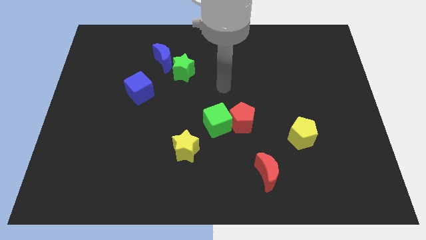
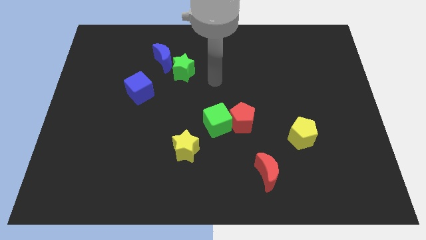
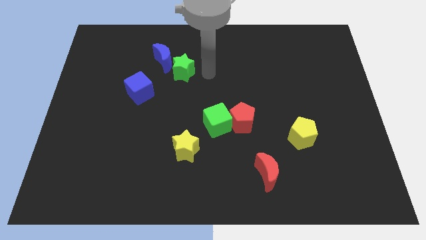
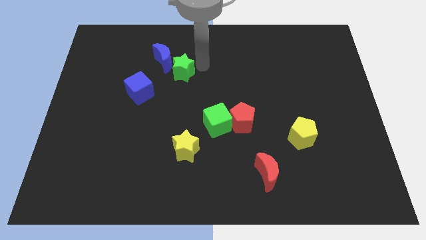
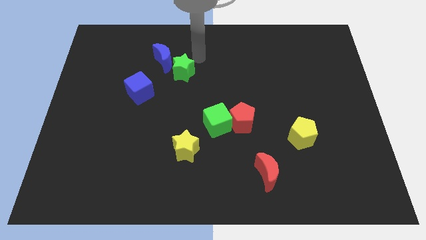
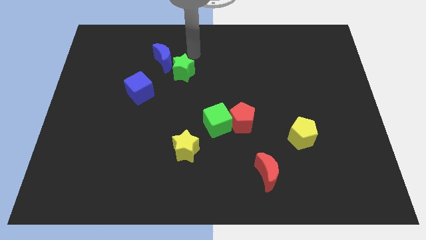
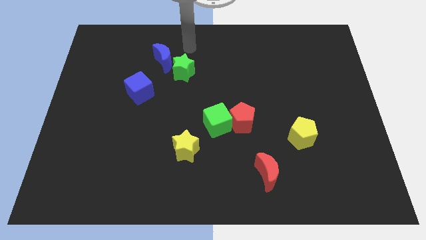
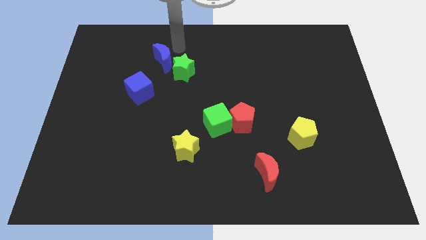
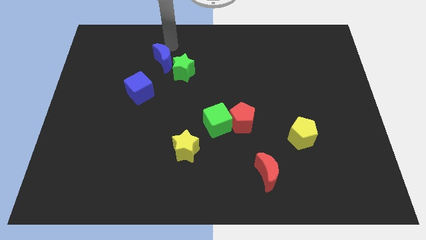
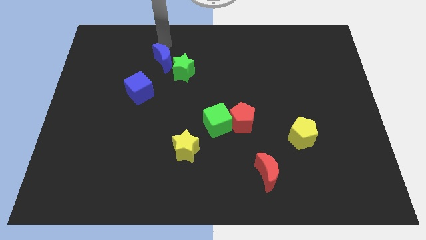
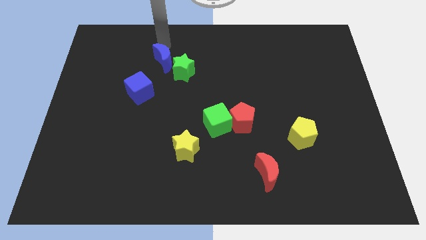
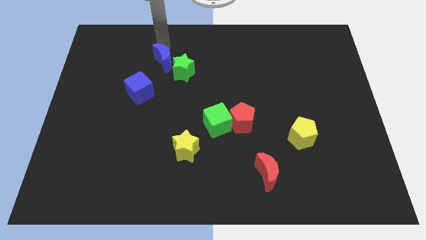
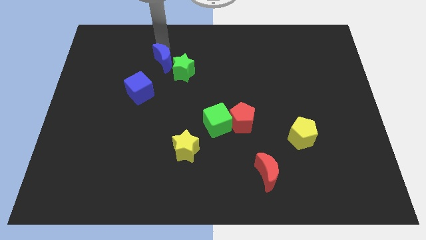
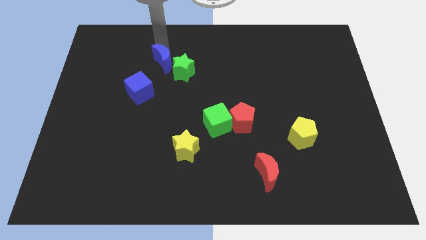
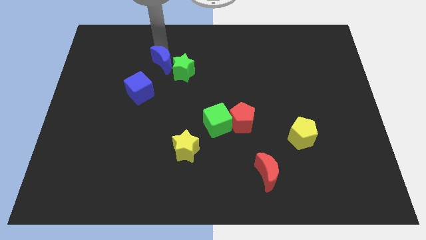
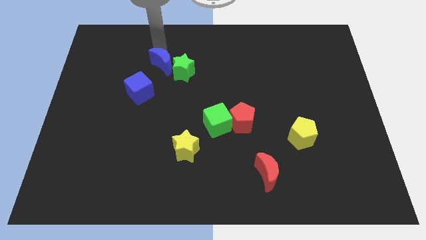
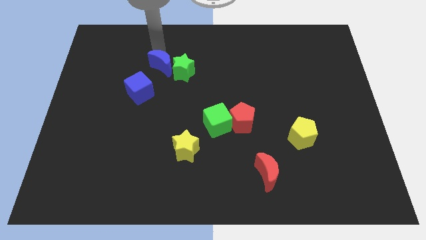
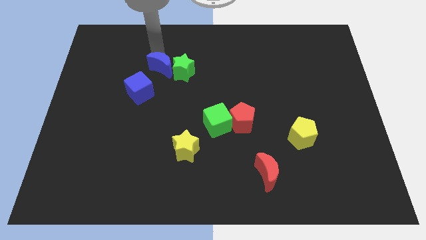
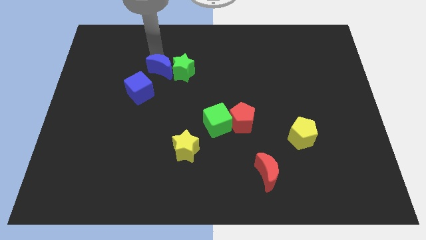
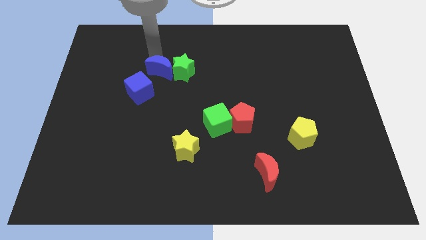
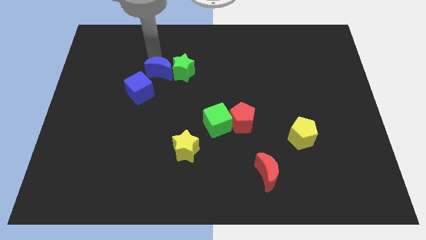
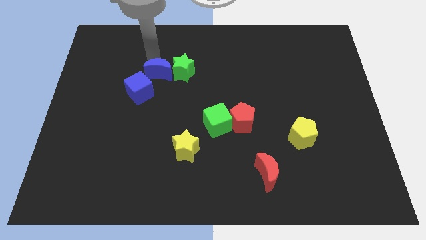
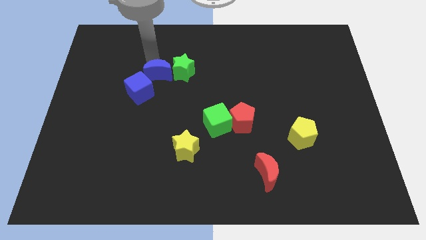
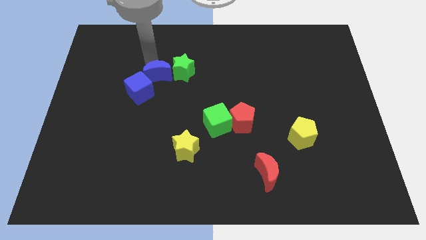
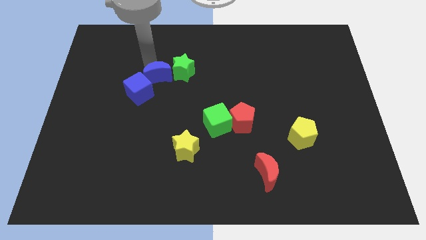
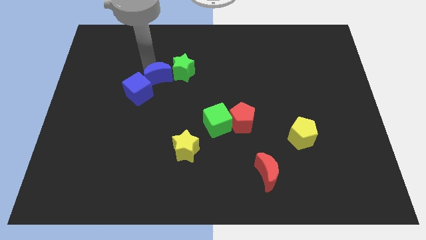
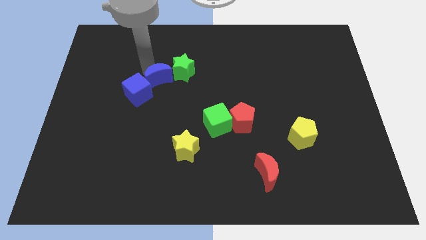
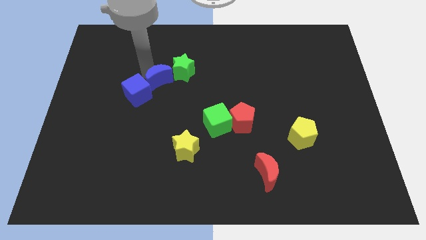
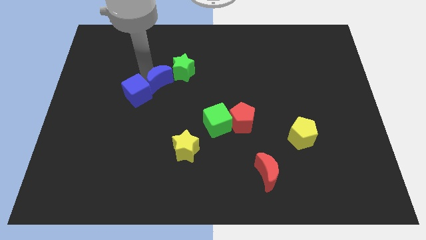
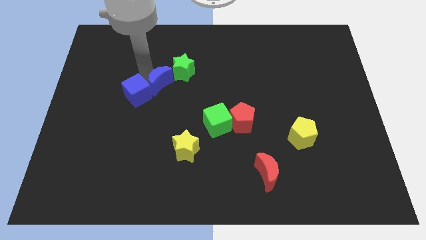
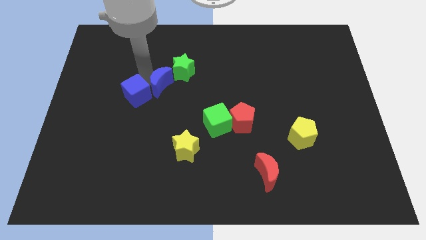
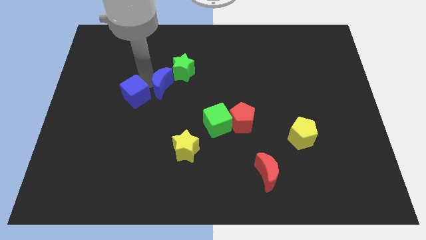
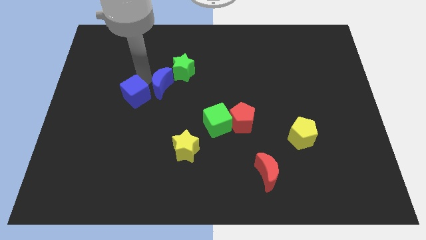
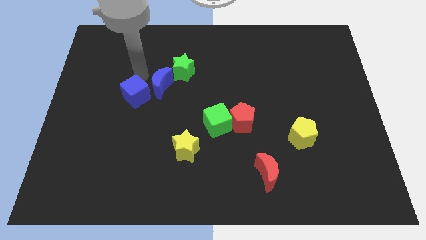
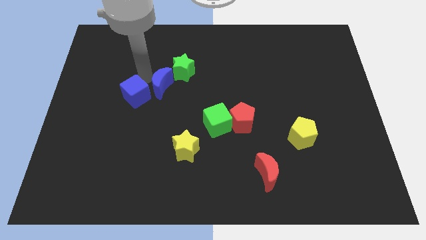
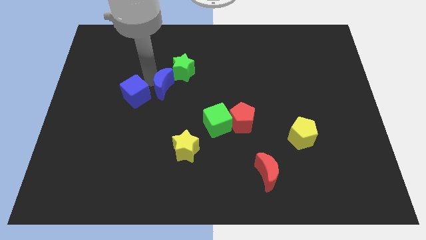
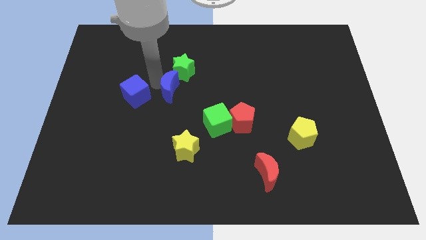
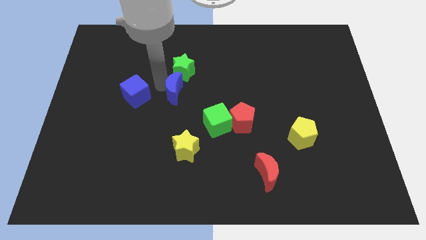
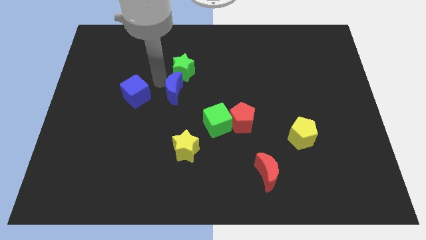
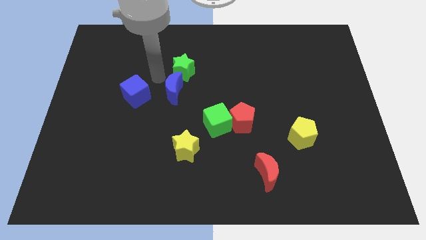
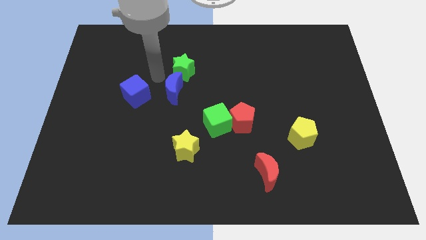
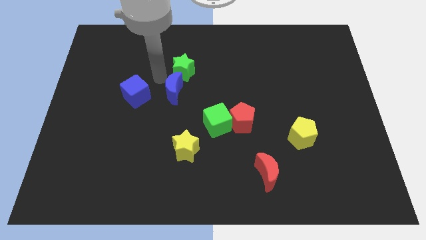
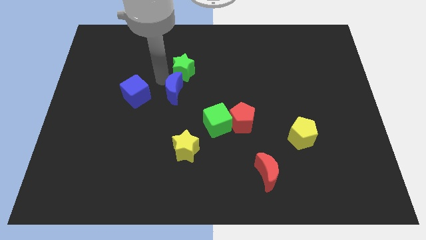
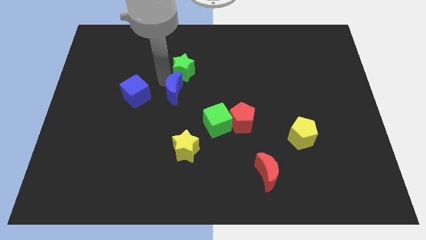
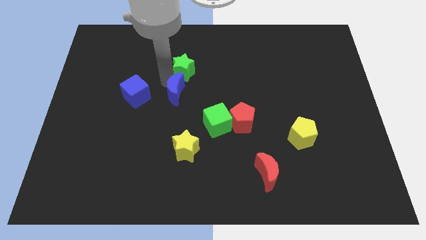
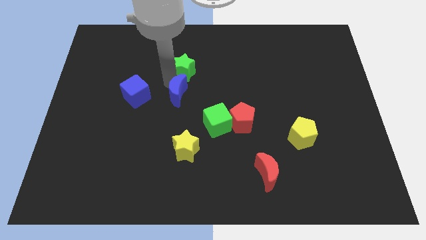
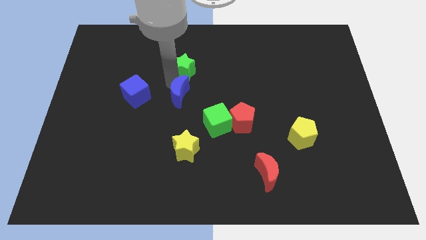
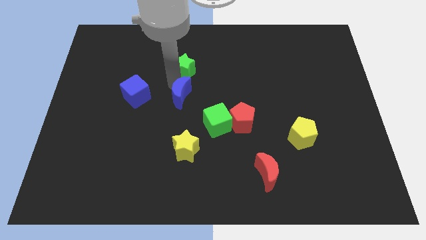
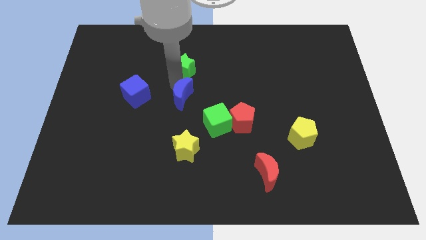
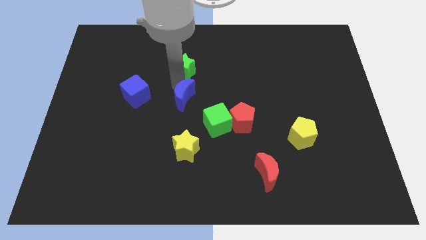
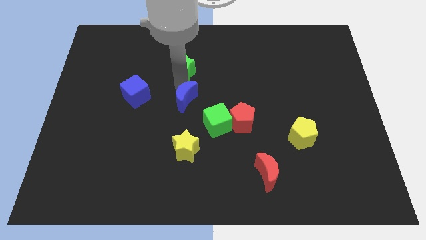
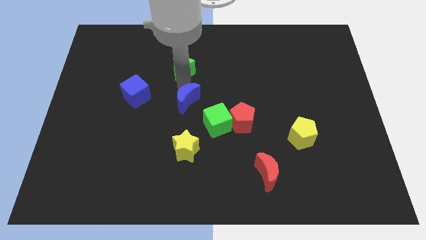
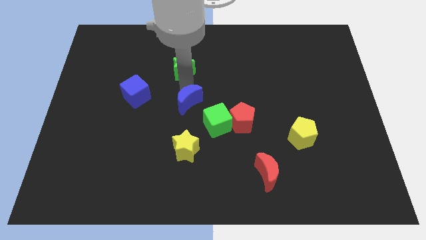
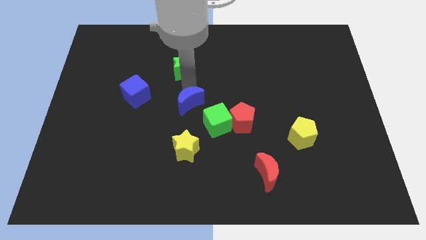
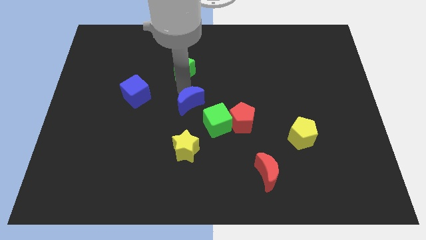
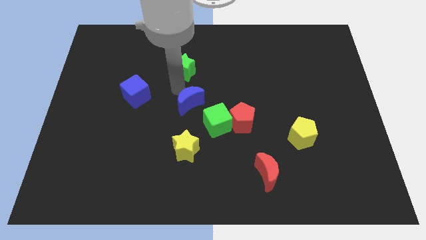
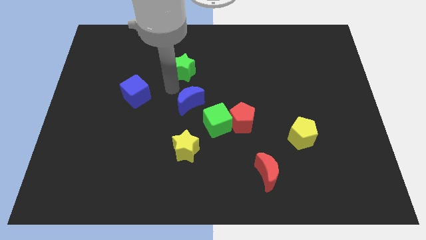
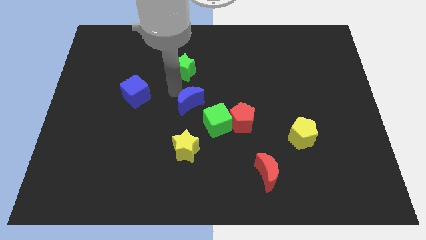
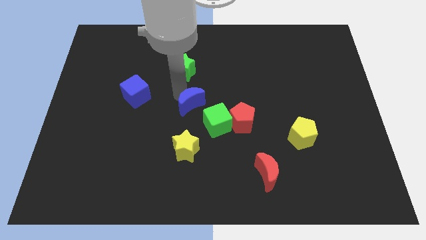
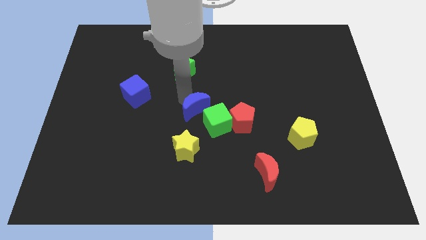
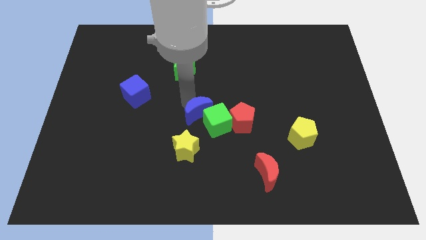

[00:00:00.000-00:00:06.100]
move the blue moon towards the green cube

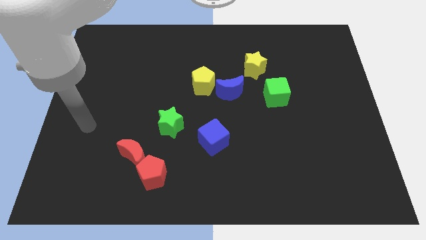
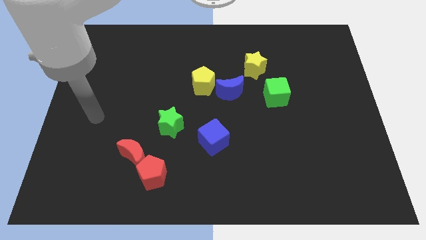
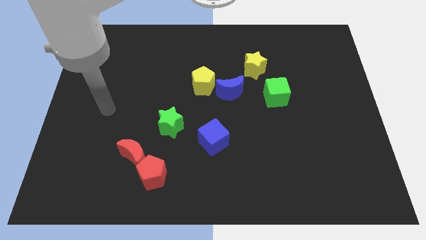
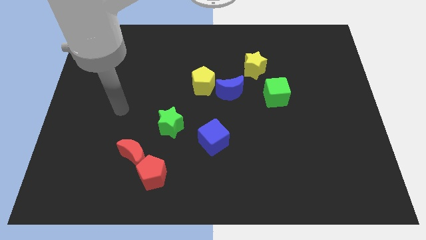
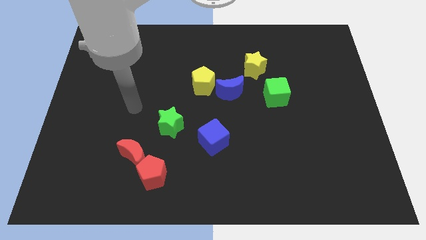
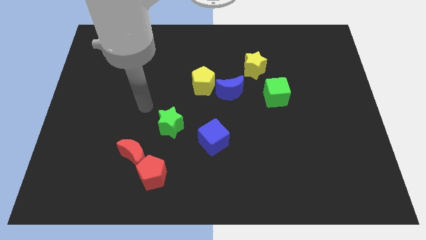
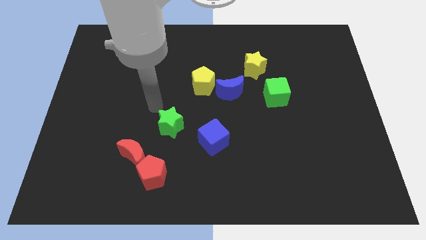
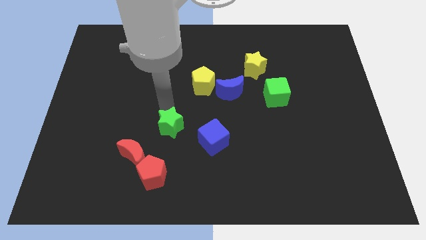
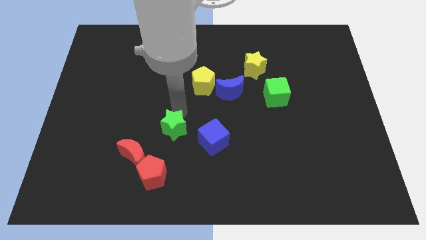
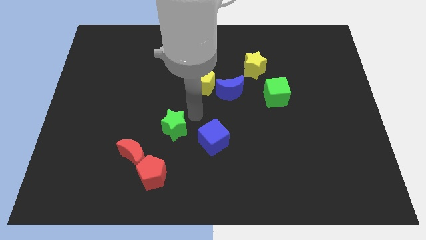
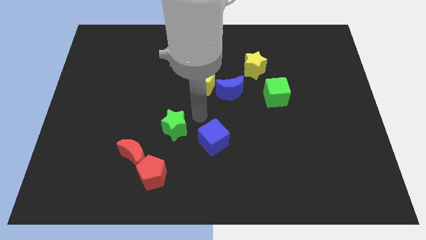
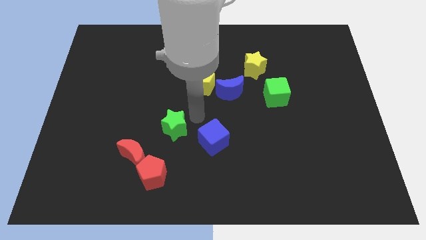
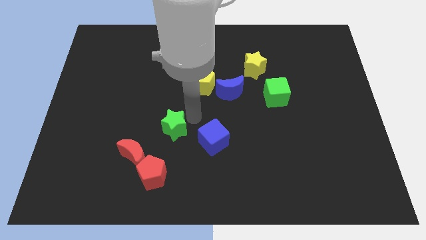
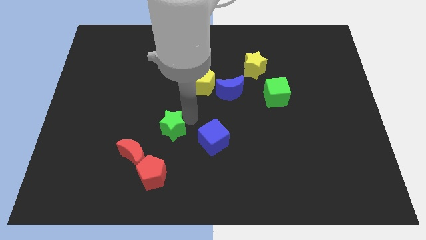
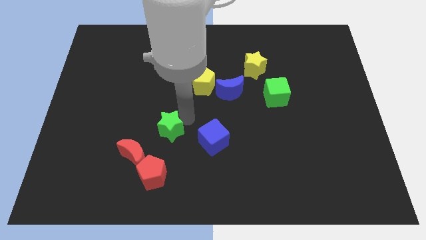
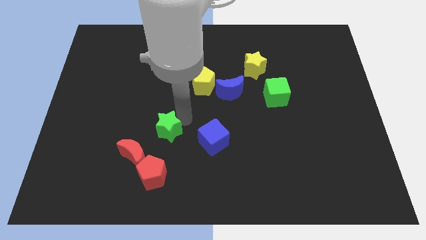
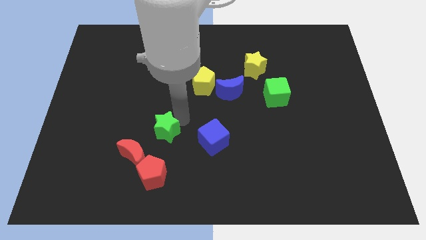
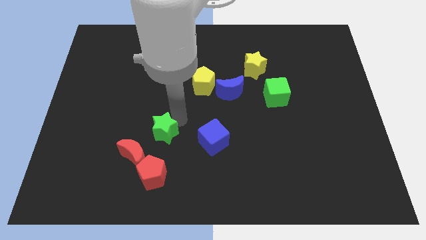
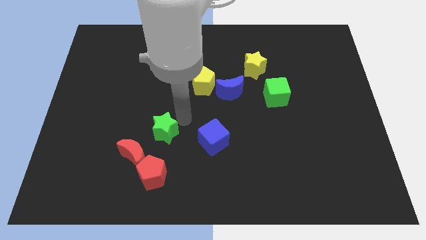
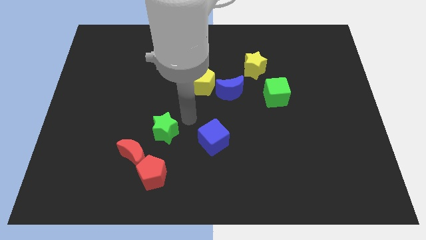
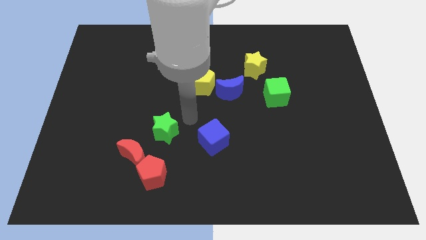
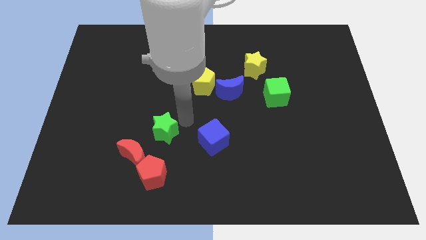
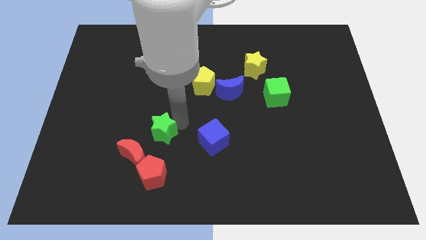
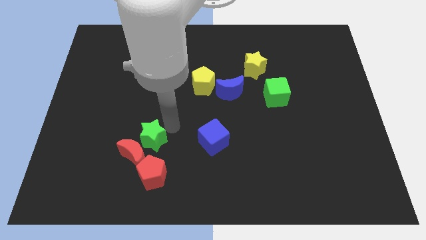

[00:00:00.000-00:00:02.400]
slide the green star next to the red moon
